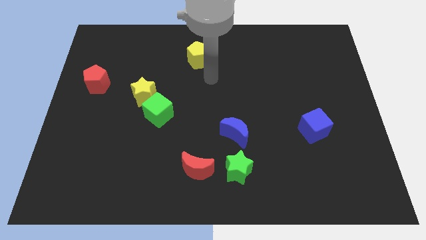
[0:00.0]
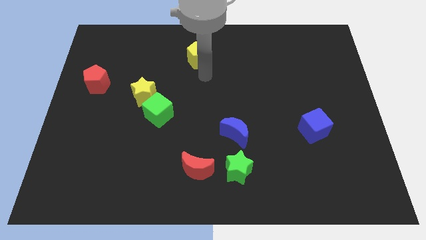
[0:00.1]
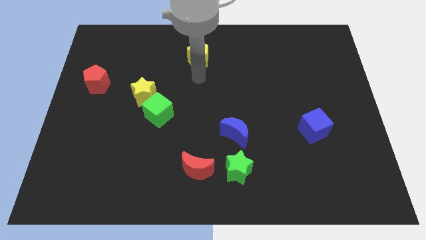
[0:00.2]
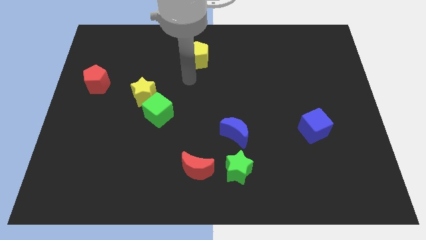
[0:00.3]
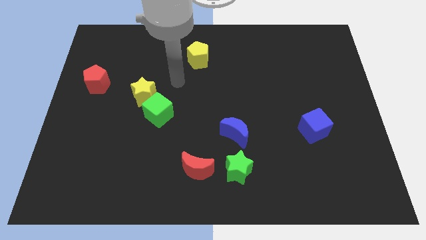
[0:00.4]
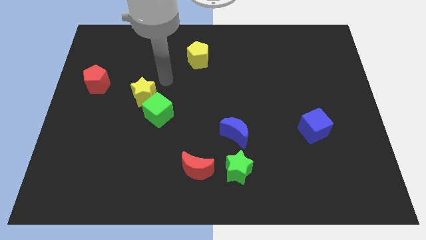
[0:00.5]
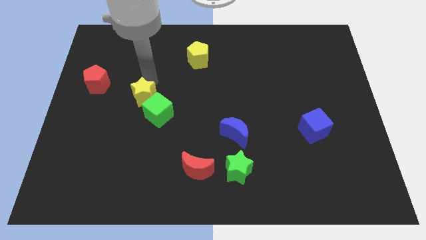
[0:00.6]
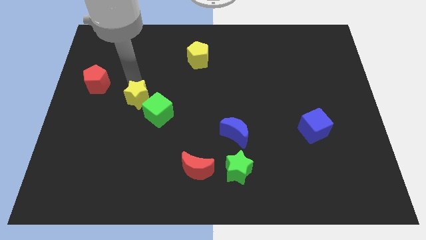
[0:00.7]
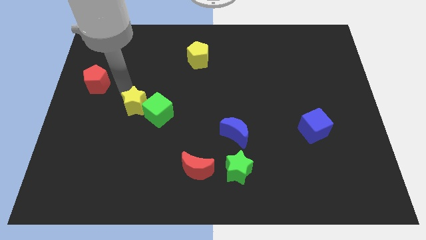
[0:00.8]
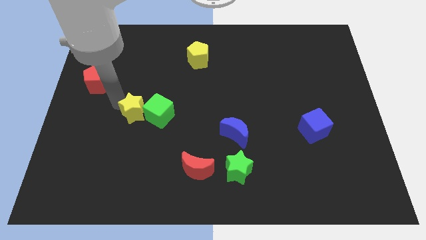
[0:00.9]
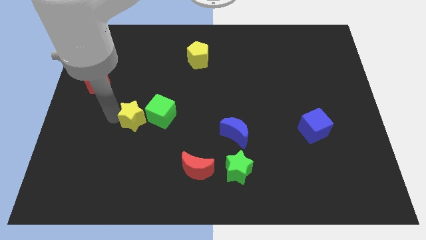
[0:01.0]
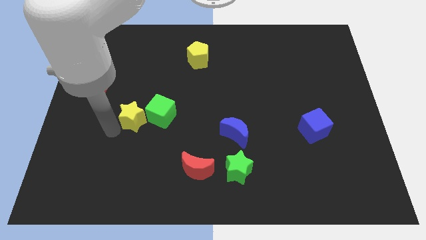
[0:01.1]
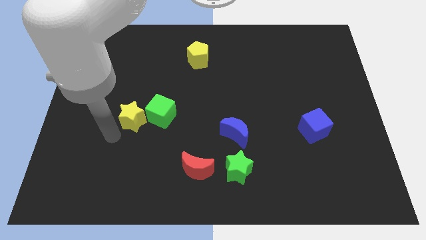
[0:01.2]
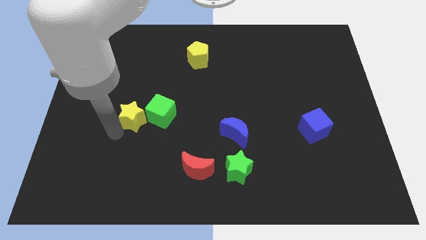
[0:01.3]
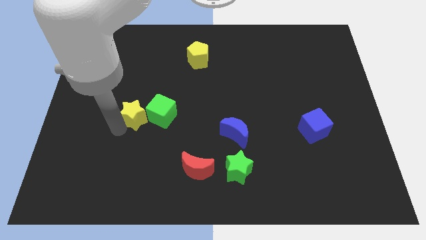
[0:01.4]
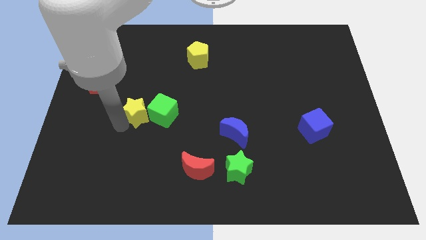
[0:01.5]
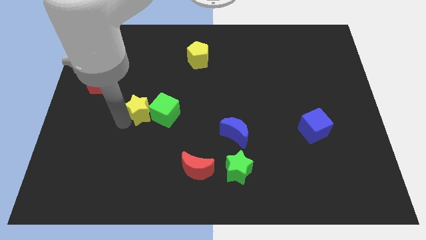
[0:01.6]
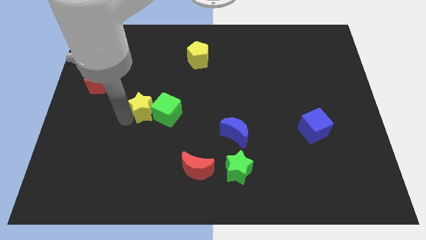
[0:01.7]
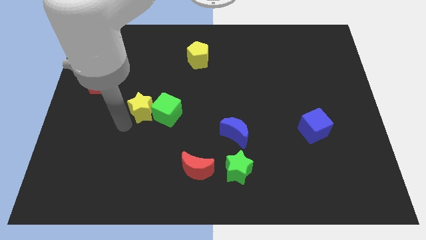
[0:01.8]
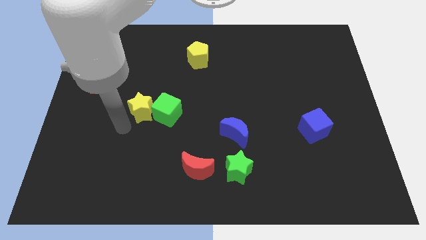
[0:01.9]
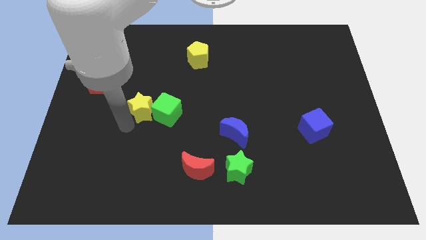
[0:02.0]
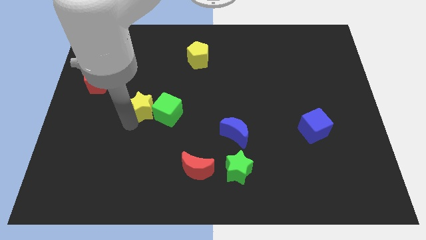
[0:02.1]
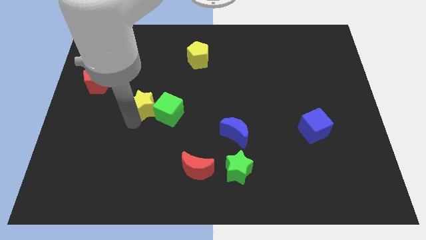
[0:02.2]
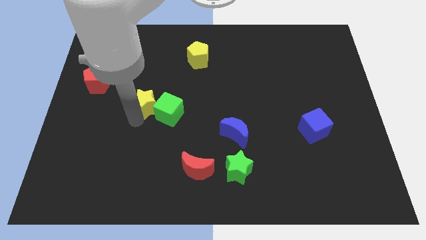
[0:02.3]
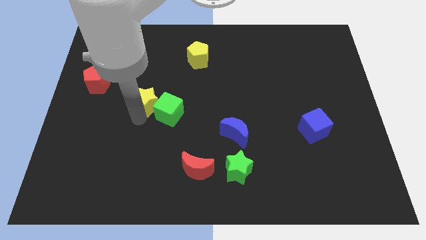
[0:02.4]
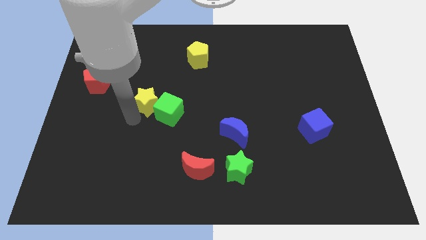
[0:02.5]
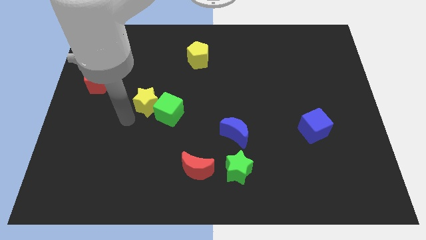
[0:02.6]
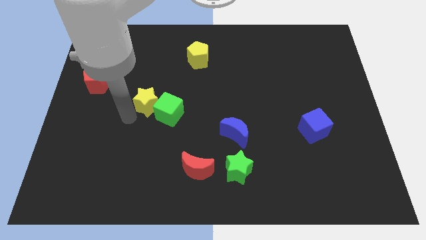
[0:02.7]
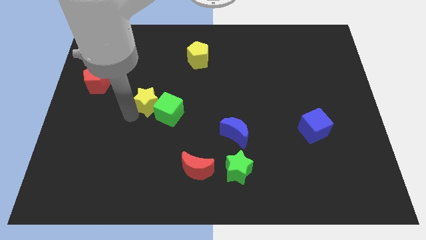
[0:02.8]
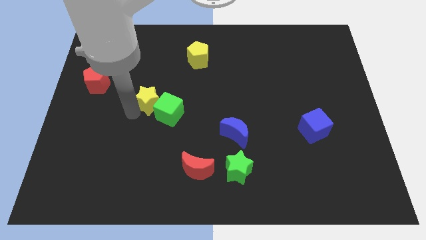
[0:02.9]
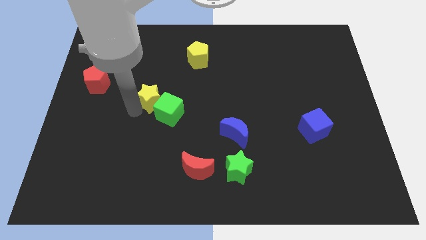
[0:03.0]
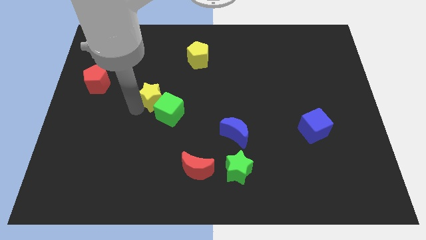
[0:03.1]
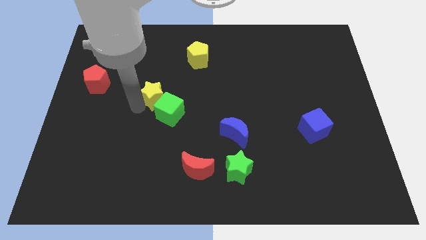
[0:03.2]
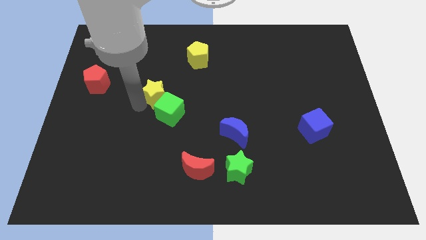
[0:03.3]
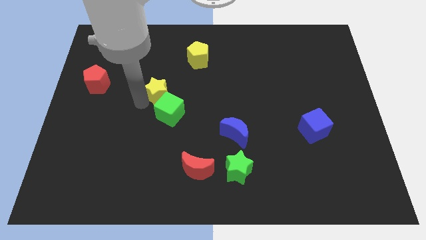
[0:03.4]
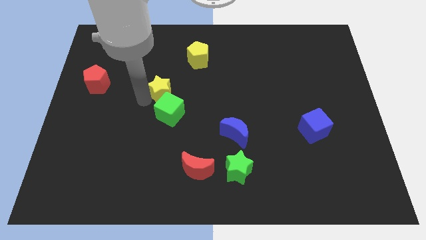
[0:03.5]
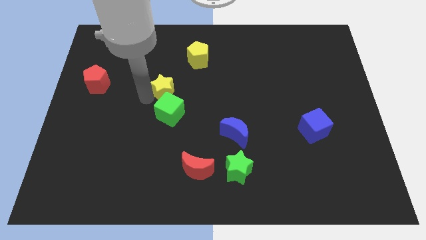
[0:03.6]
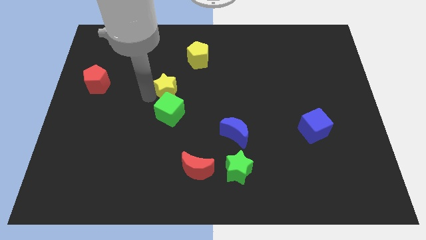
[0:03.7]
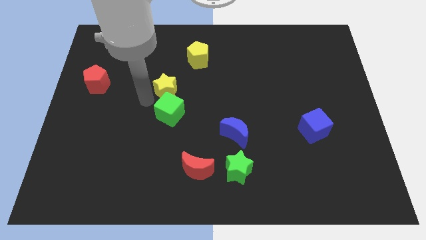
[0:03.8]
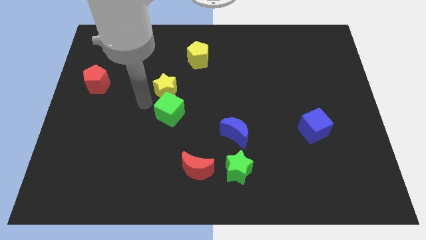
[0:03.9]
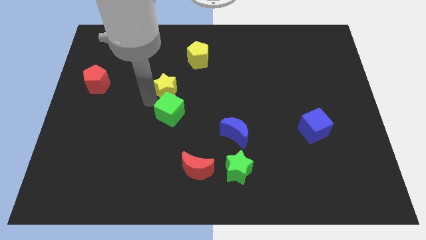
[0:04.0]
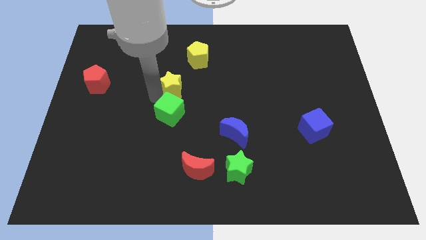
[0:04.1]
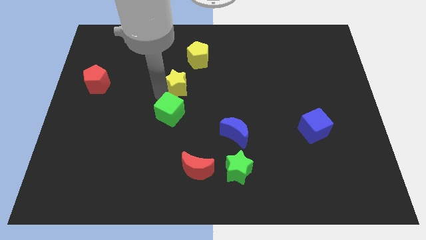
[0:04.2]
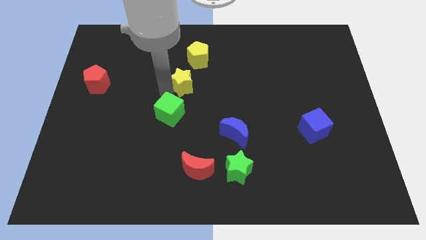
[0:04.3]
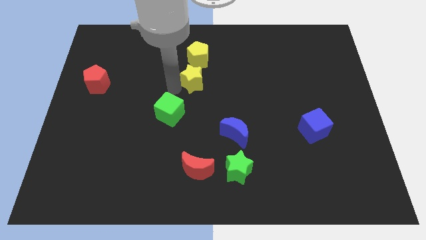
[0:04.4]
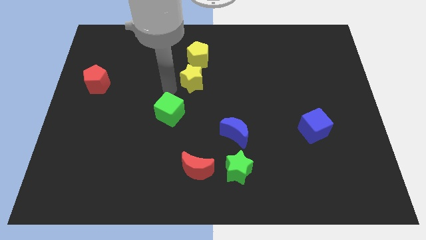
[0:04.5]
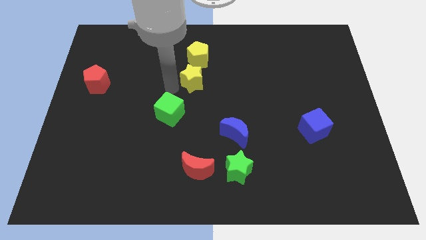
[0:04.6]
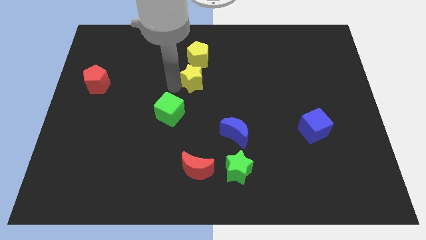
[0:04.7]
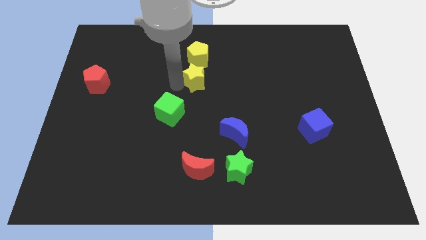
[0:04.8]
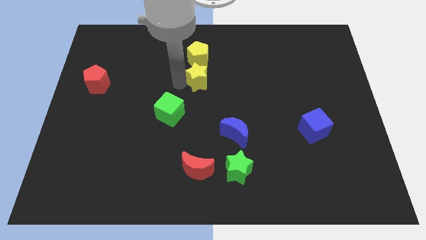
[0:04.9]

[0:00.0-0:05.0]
push the yellow star to the bottom right side of the yellow pentagon

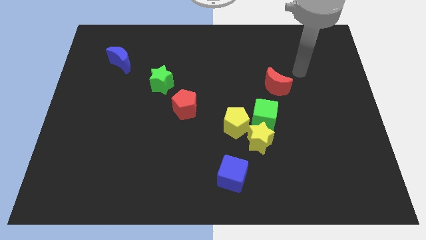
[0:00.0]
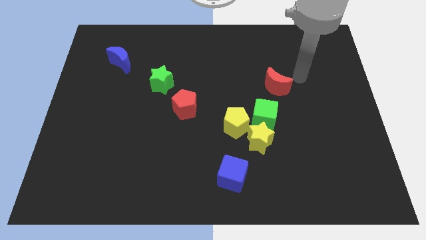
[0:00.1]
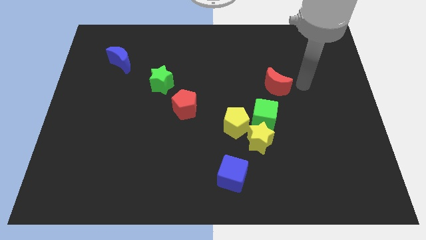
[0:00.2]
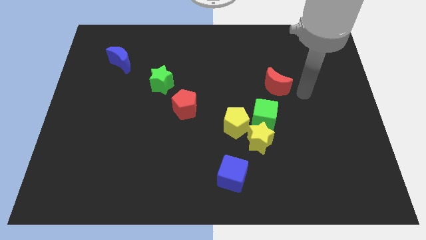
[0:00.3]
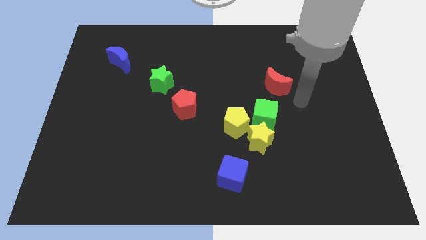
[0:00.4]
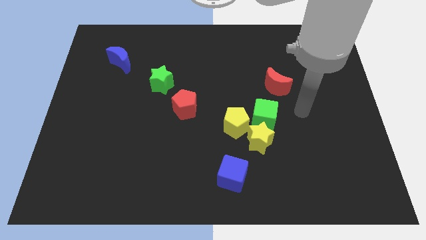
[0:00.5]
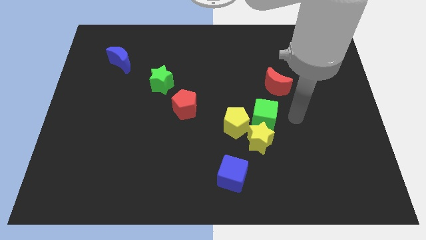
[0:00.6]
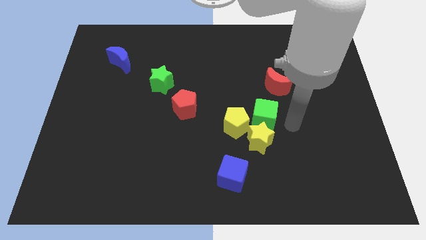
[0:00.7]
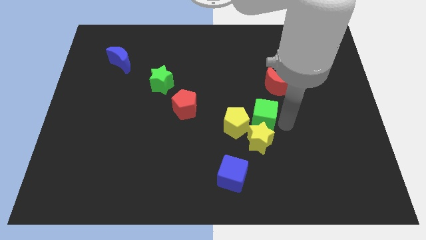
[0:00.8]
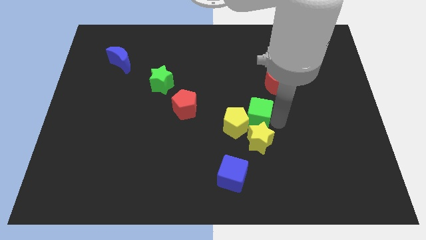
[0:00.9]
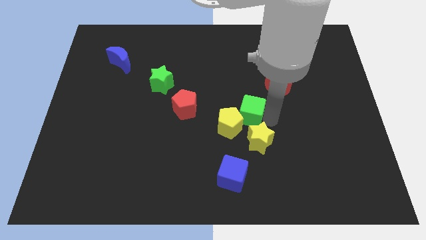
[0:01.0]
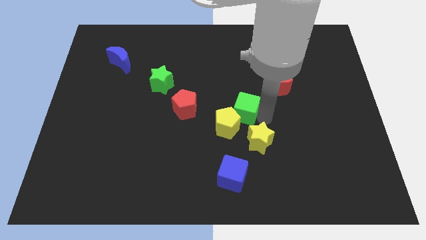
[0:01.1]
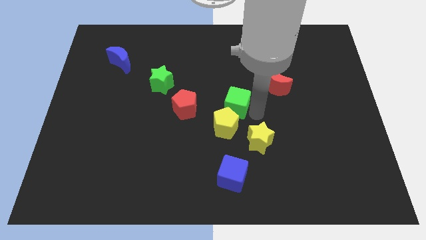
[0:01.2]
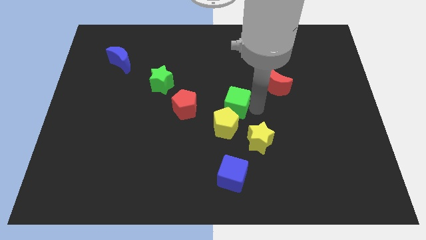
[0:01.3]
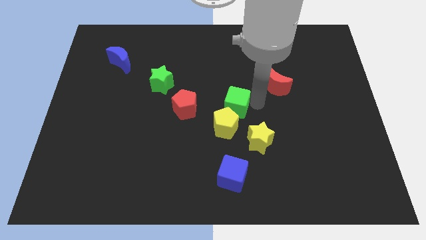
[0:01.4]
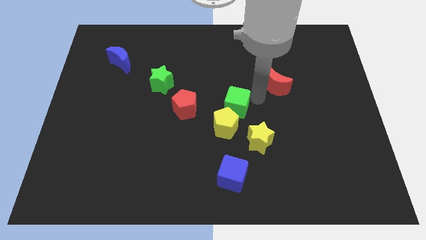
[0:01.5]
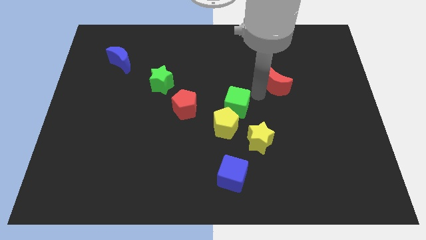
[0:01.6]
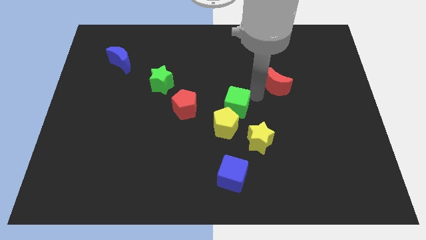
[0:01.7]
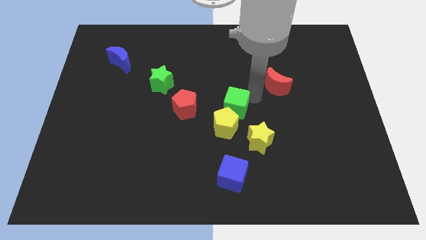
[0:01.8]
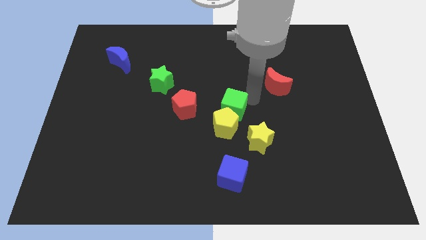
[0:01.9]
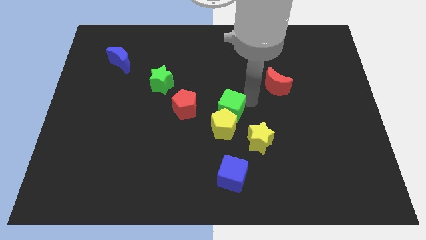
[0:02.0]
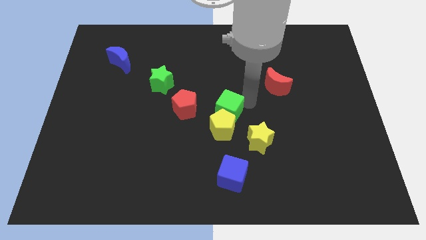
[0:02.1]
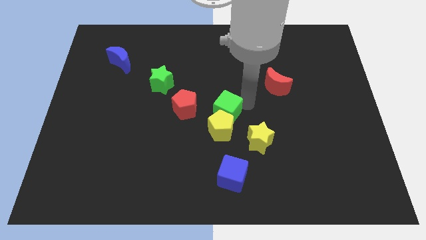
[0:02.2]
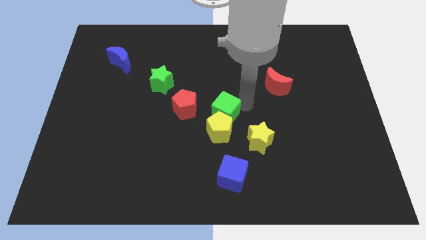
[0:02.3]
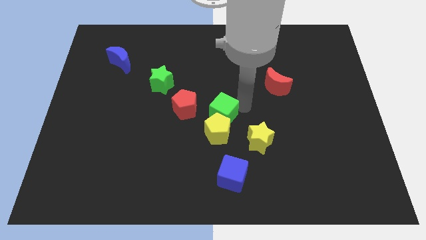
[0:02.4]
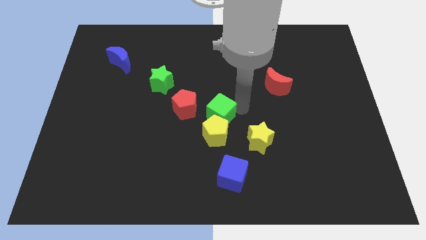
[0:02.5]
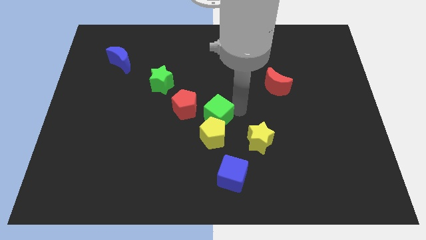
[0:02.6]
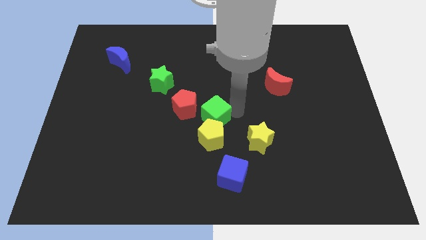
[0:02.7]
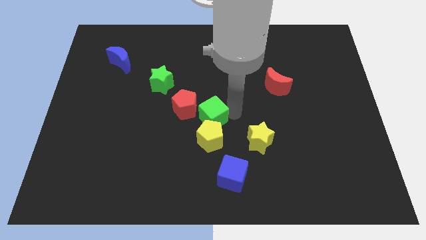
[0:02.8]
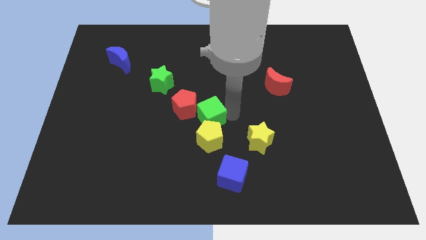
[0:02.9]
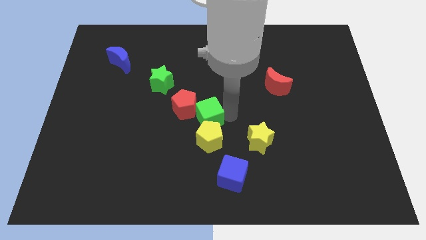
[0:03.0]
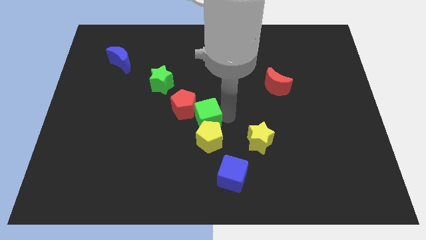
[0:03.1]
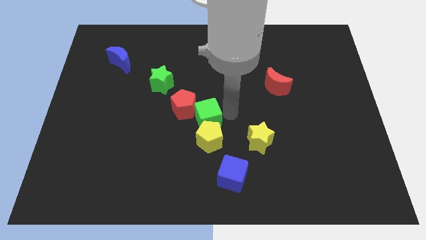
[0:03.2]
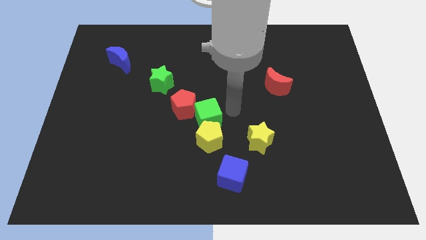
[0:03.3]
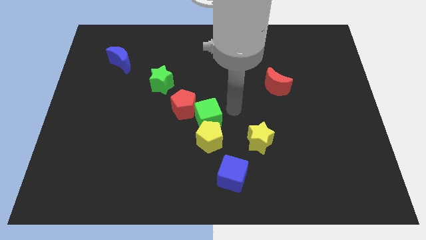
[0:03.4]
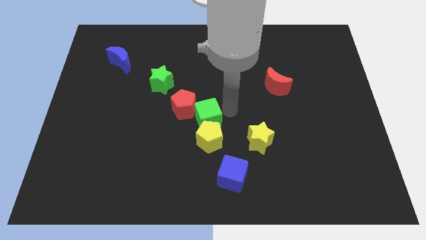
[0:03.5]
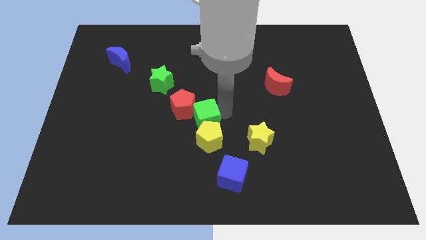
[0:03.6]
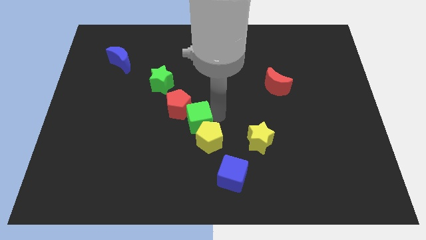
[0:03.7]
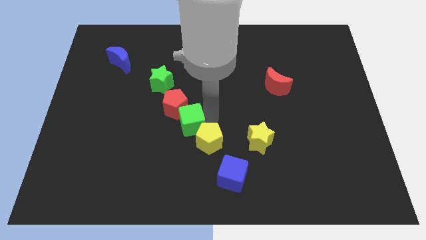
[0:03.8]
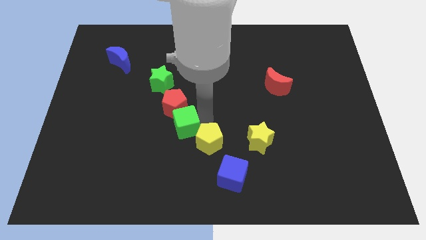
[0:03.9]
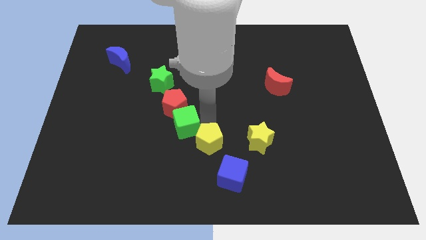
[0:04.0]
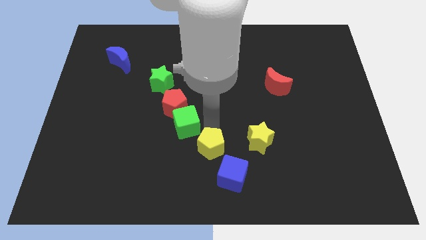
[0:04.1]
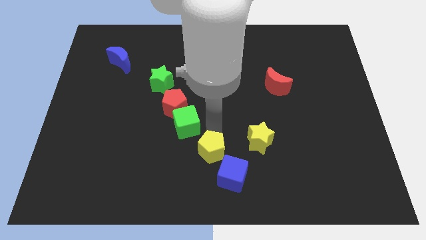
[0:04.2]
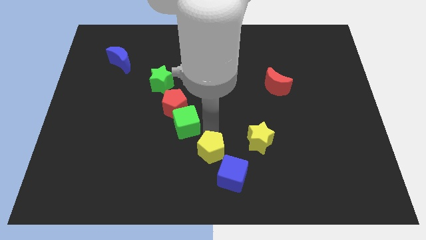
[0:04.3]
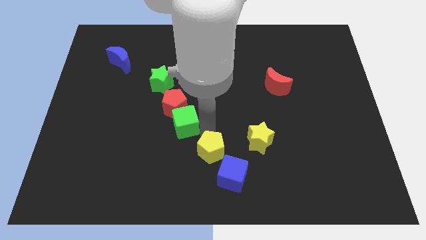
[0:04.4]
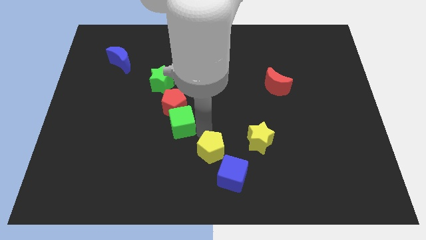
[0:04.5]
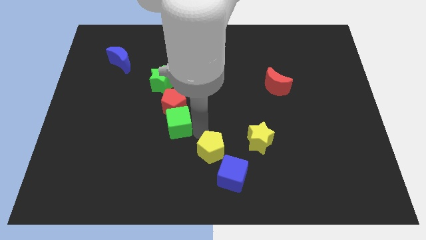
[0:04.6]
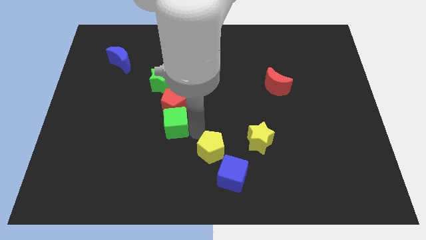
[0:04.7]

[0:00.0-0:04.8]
slide the green cube to the bottom side of the green star
